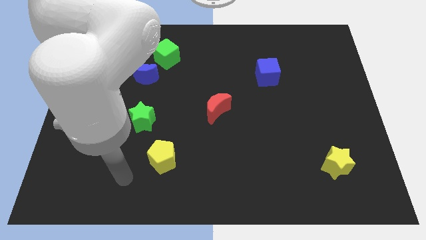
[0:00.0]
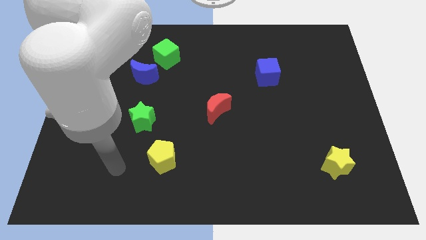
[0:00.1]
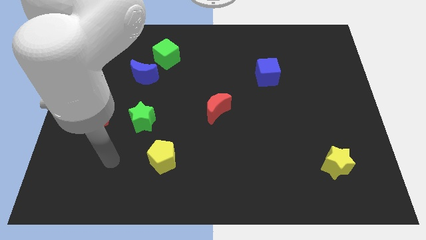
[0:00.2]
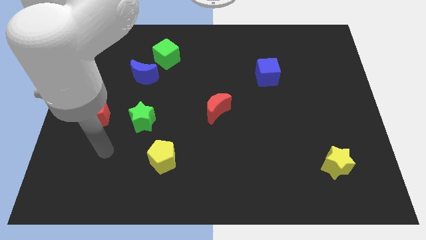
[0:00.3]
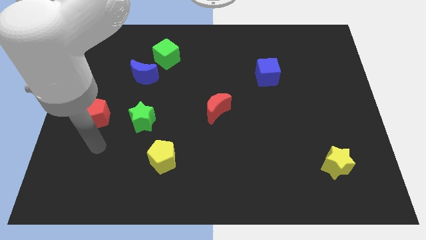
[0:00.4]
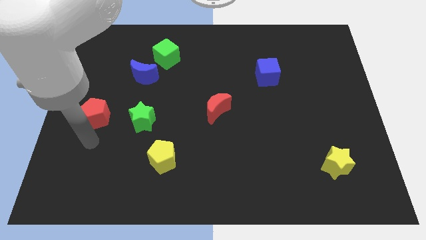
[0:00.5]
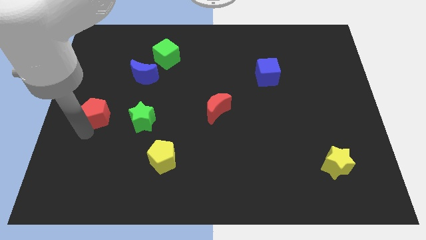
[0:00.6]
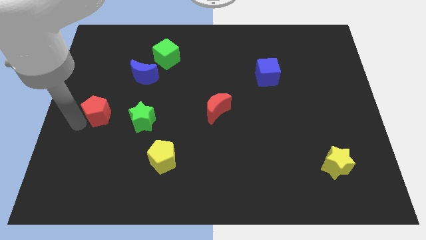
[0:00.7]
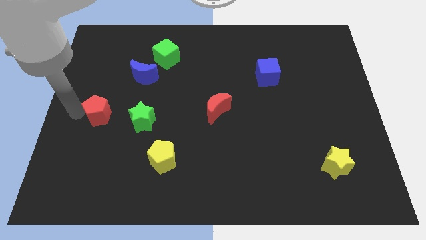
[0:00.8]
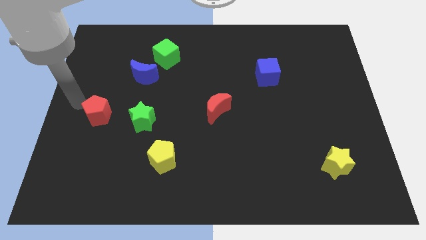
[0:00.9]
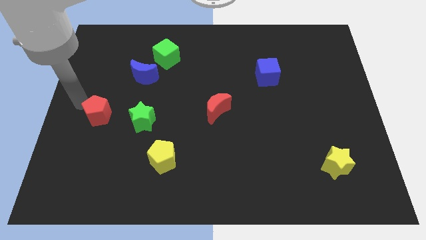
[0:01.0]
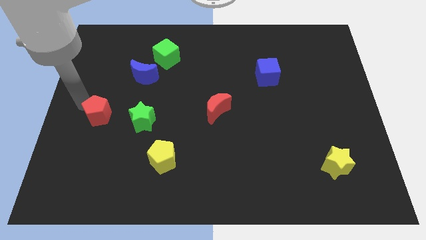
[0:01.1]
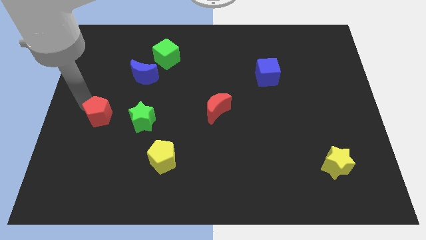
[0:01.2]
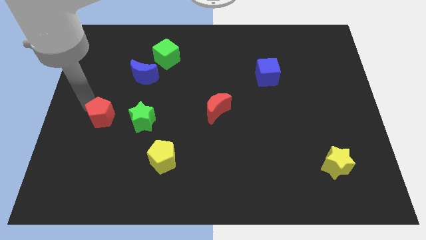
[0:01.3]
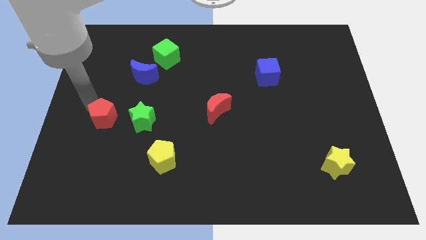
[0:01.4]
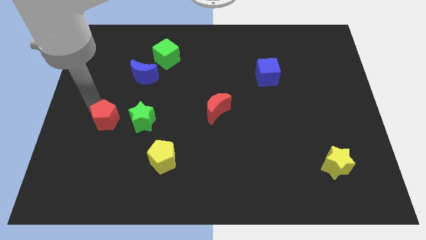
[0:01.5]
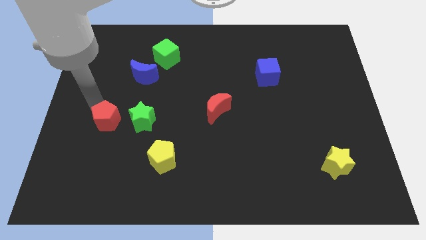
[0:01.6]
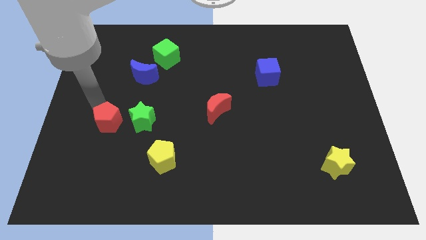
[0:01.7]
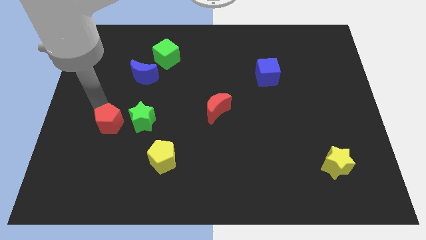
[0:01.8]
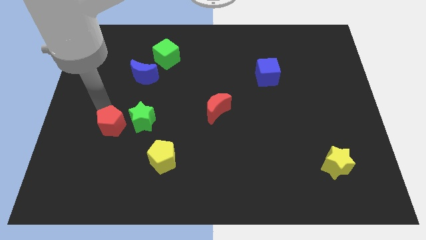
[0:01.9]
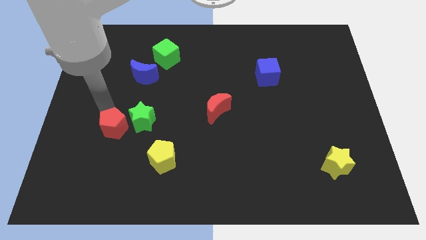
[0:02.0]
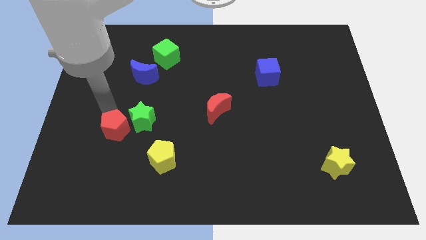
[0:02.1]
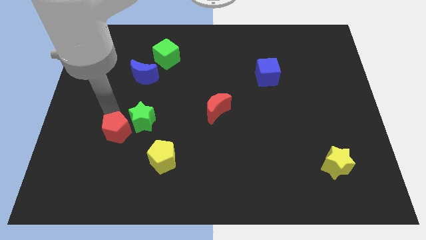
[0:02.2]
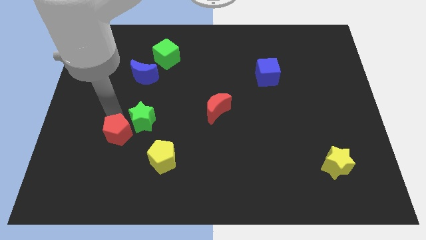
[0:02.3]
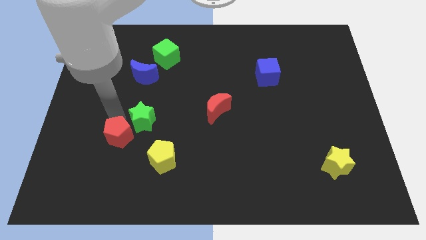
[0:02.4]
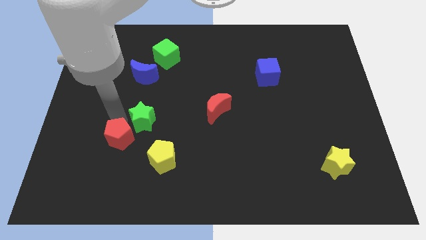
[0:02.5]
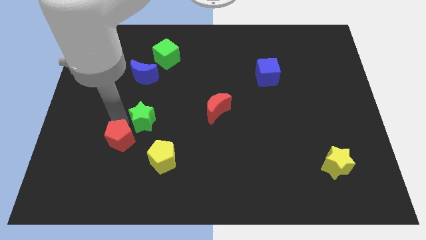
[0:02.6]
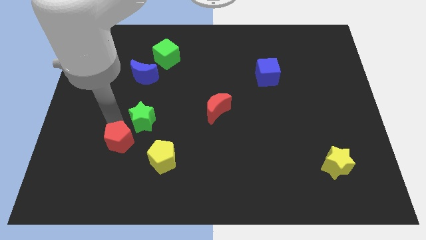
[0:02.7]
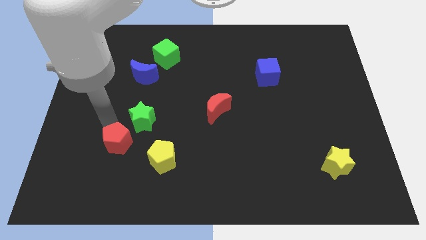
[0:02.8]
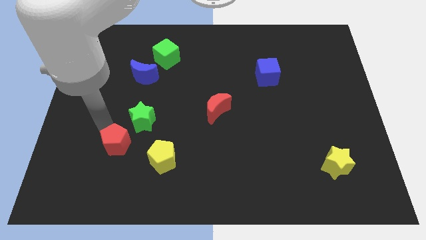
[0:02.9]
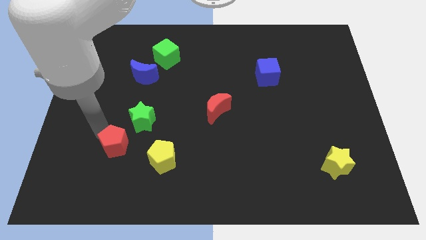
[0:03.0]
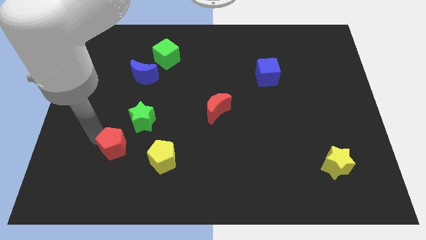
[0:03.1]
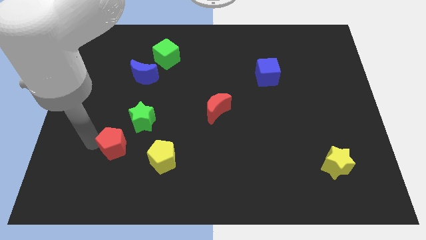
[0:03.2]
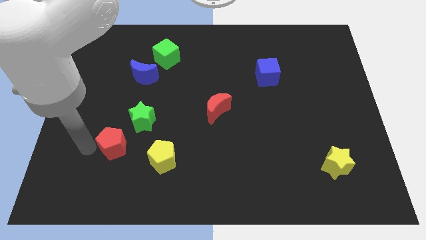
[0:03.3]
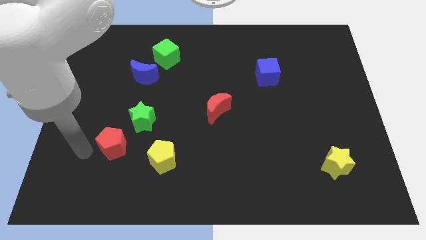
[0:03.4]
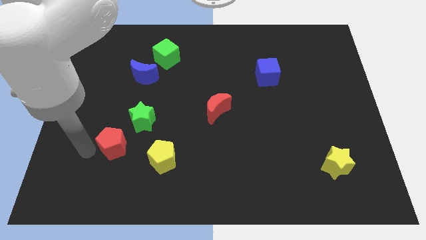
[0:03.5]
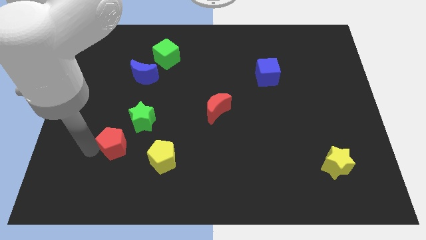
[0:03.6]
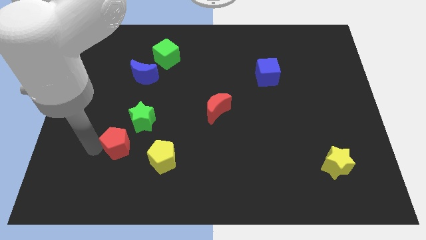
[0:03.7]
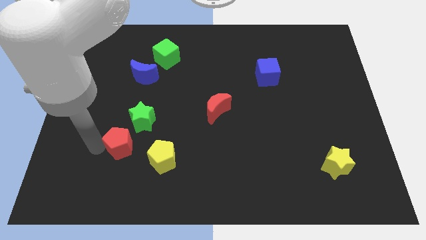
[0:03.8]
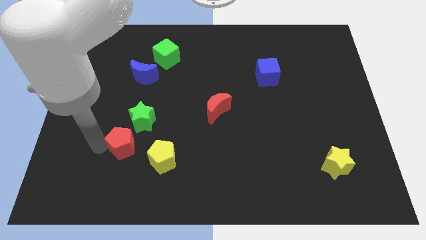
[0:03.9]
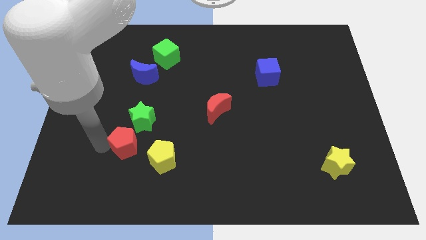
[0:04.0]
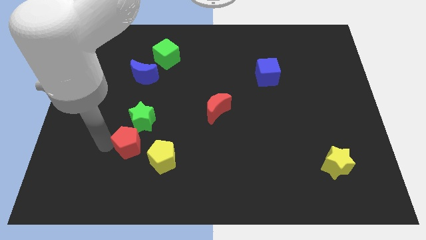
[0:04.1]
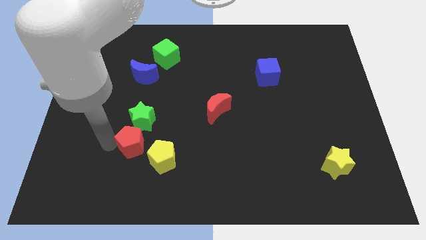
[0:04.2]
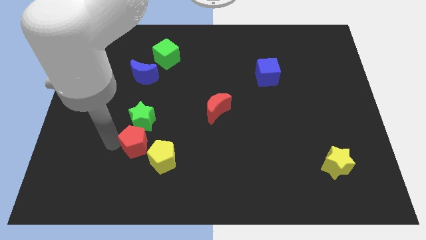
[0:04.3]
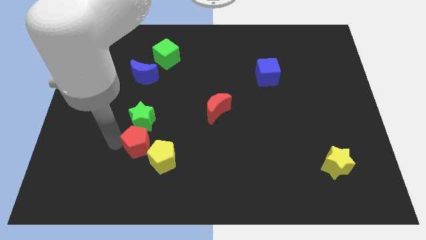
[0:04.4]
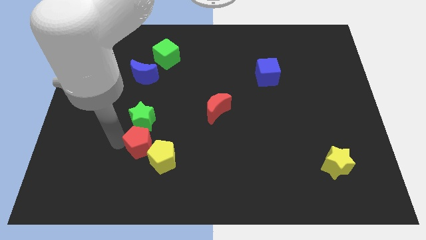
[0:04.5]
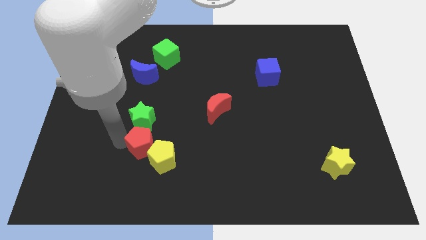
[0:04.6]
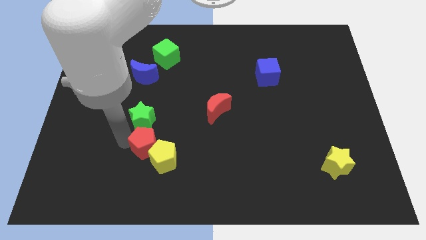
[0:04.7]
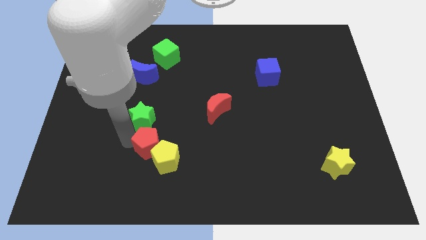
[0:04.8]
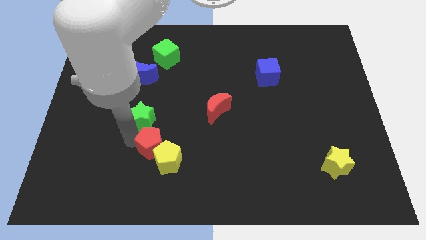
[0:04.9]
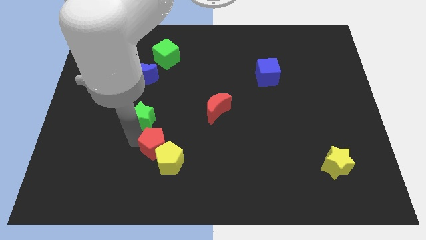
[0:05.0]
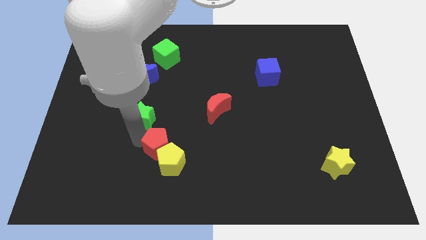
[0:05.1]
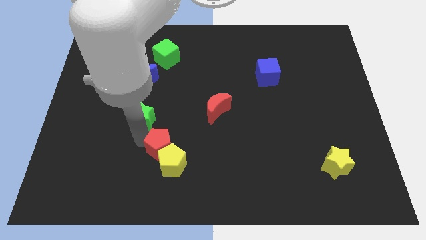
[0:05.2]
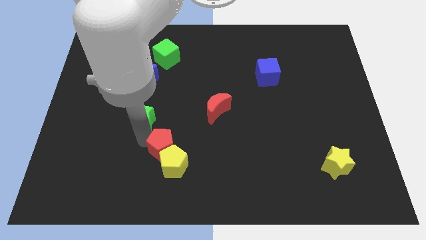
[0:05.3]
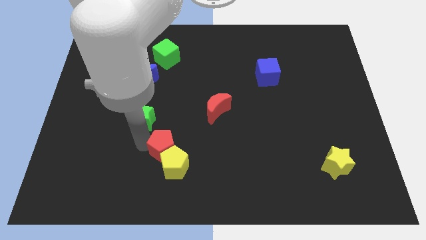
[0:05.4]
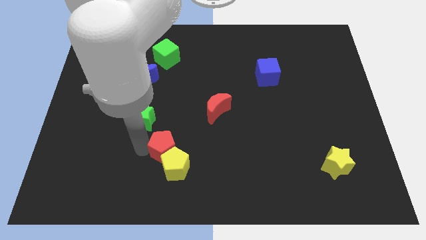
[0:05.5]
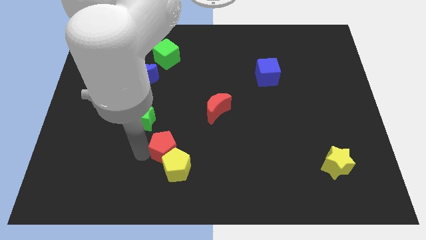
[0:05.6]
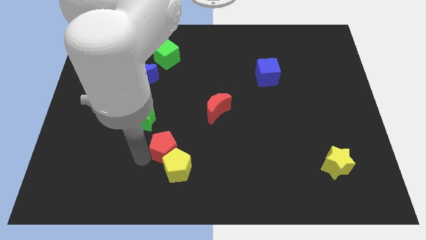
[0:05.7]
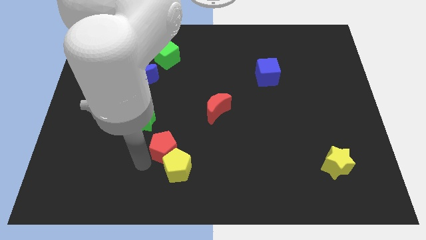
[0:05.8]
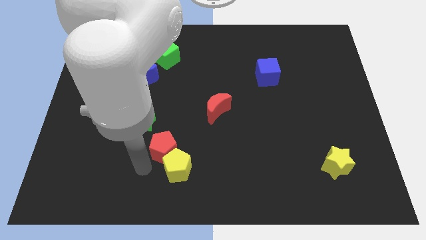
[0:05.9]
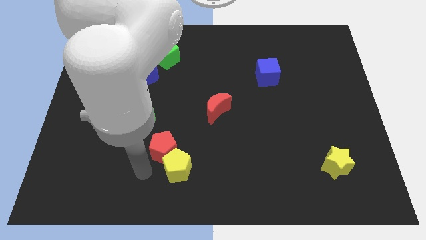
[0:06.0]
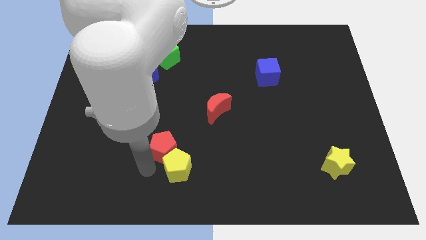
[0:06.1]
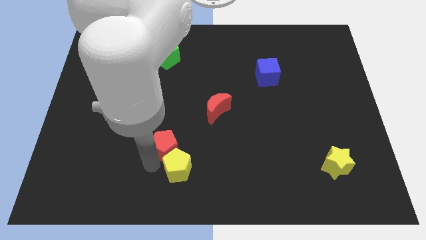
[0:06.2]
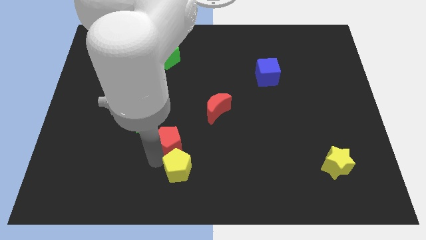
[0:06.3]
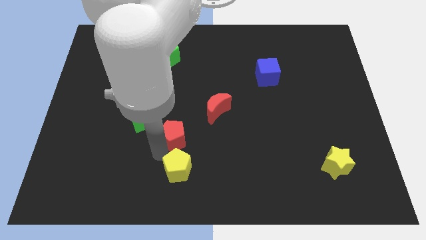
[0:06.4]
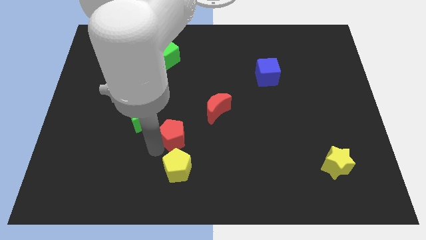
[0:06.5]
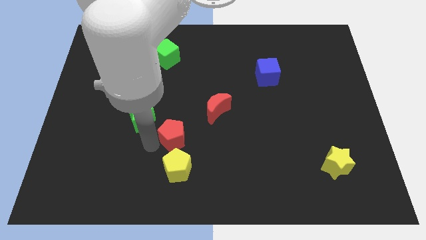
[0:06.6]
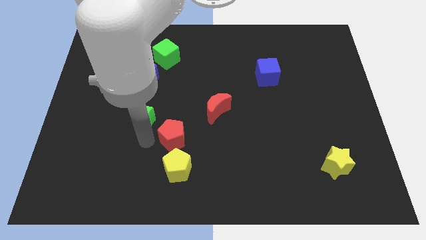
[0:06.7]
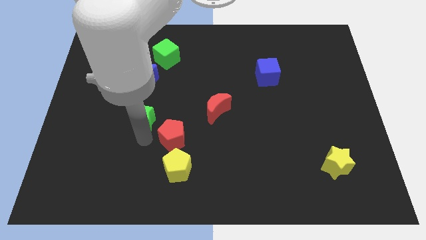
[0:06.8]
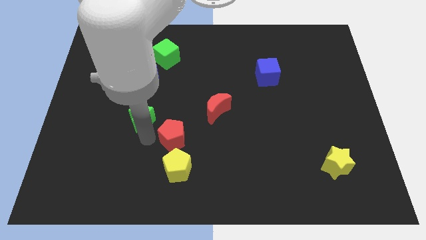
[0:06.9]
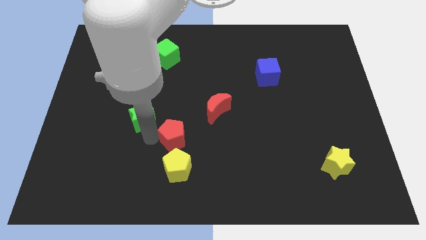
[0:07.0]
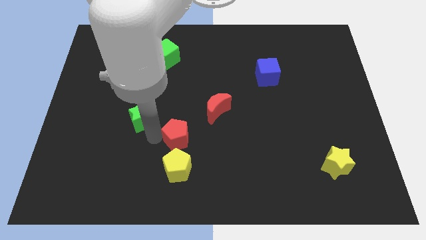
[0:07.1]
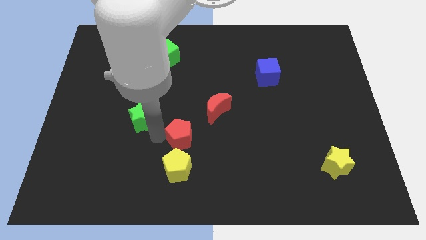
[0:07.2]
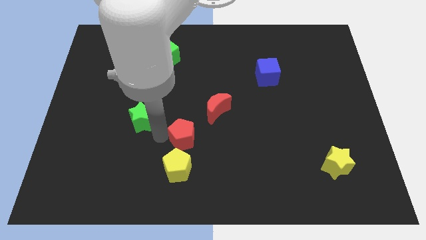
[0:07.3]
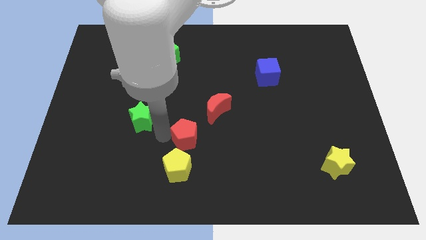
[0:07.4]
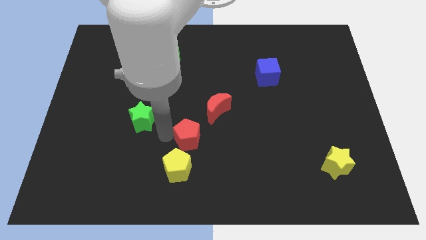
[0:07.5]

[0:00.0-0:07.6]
move the red pentagon to the right

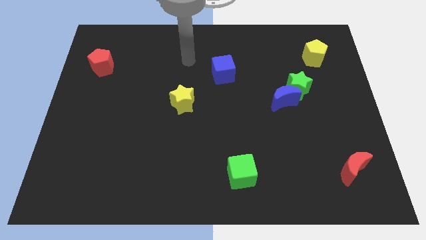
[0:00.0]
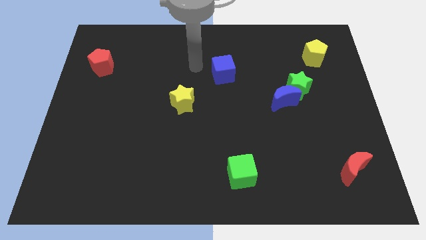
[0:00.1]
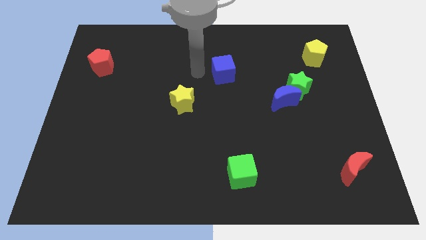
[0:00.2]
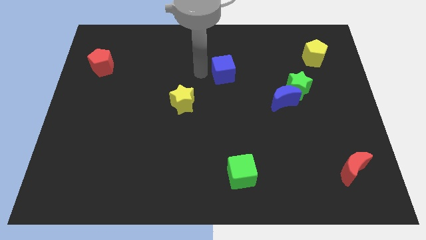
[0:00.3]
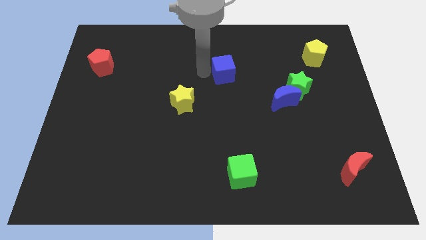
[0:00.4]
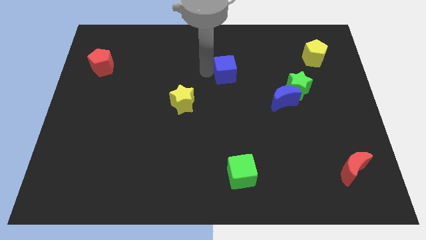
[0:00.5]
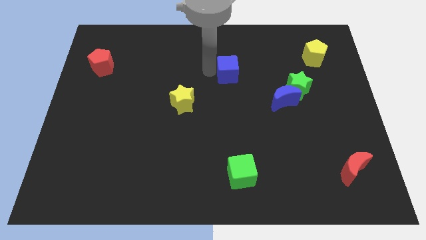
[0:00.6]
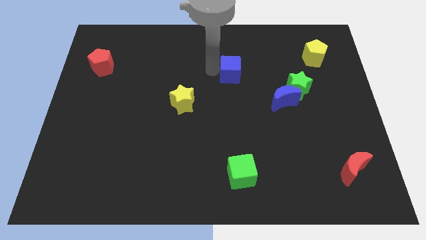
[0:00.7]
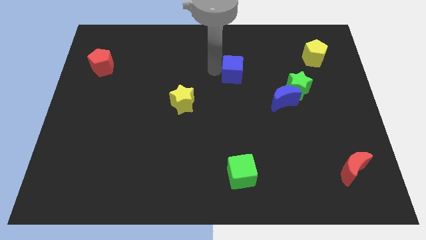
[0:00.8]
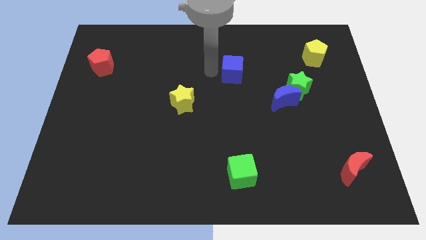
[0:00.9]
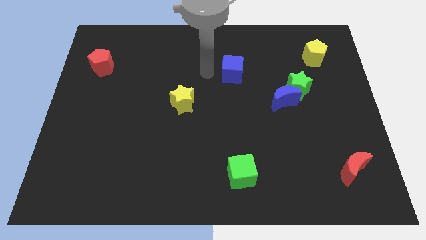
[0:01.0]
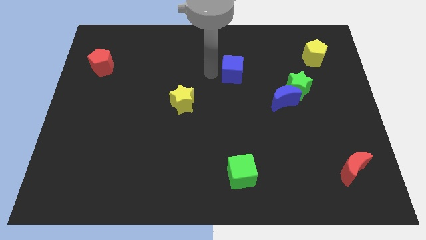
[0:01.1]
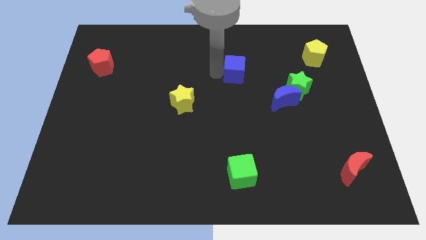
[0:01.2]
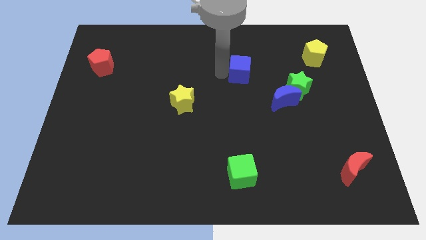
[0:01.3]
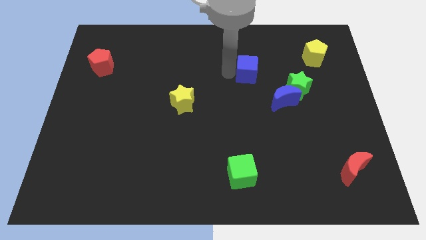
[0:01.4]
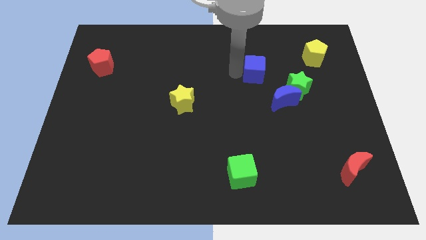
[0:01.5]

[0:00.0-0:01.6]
slide the blue cube right slightly
